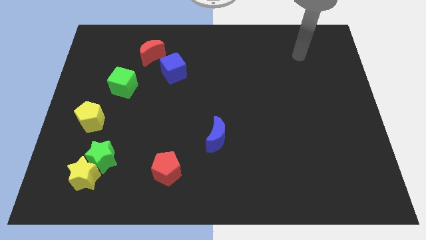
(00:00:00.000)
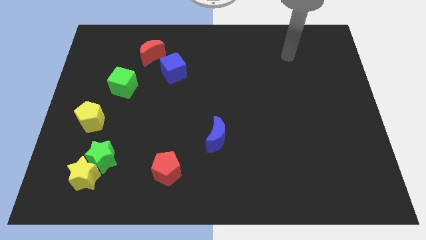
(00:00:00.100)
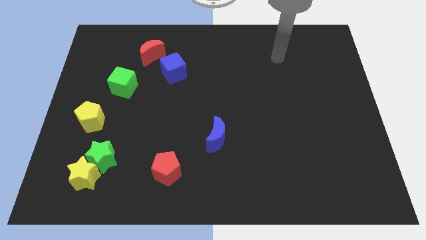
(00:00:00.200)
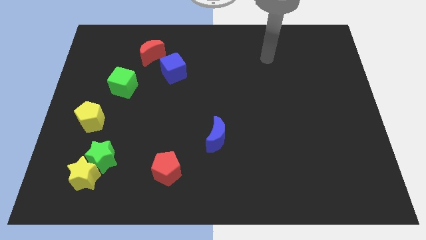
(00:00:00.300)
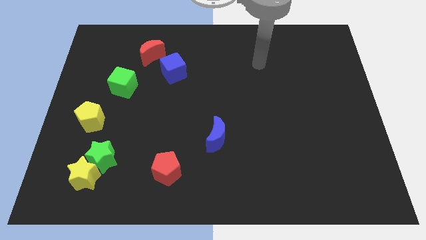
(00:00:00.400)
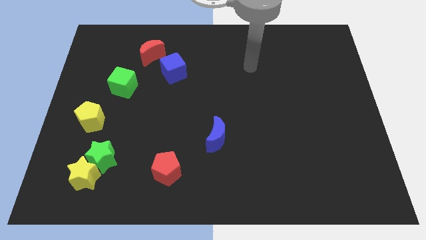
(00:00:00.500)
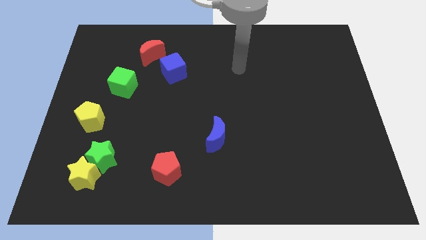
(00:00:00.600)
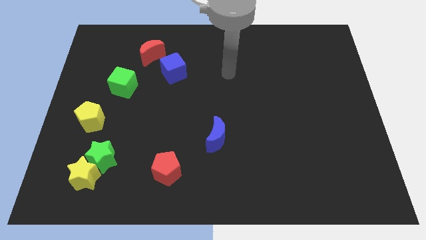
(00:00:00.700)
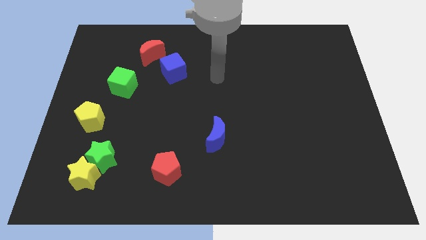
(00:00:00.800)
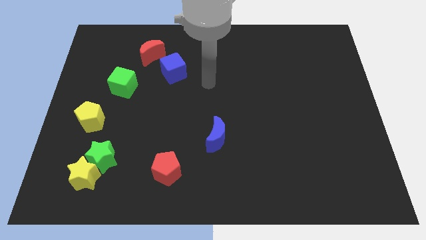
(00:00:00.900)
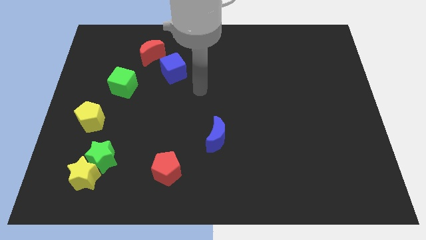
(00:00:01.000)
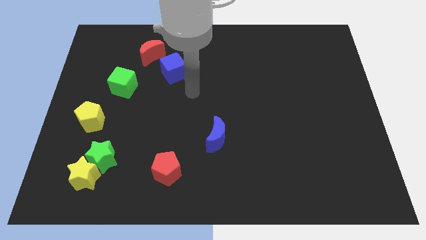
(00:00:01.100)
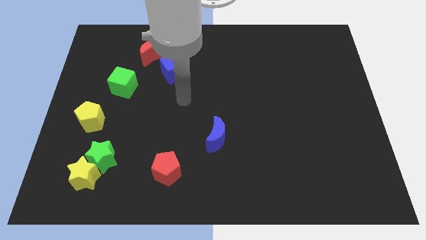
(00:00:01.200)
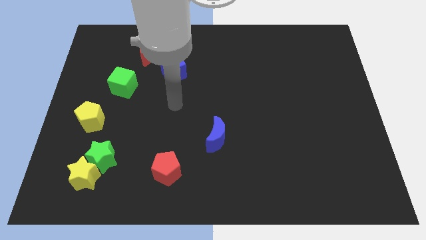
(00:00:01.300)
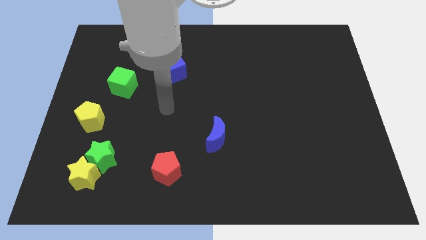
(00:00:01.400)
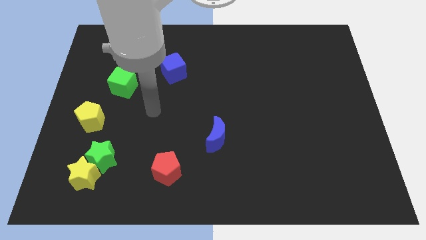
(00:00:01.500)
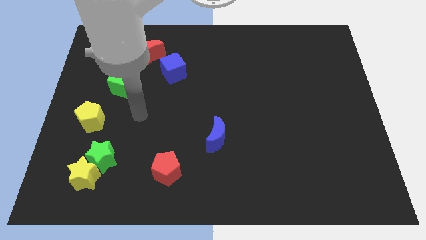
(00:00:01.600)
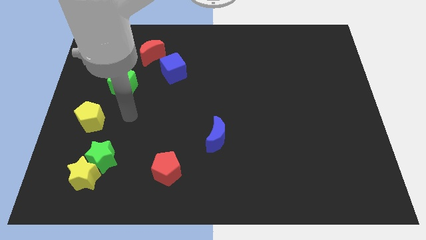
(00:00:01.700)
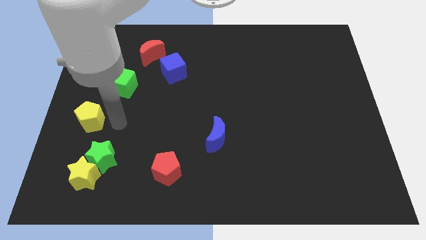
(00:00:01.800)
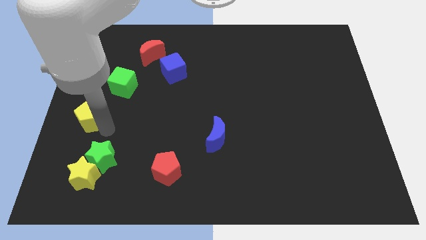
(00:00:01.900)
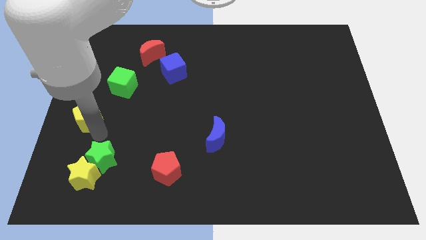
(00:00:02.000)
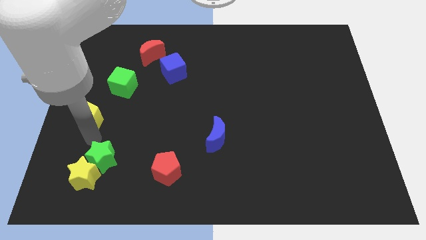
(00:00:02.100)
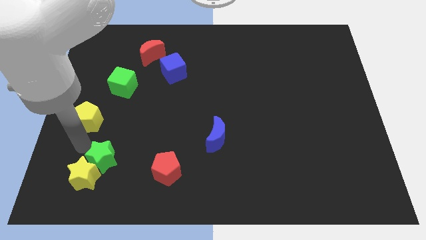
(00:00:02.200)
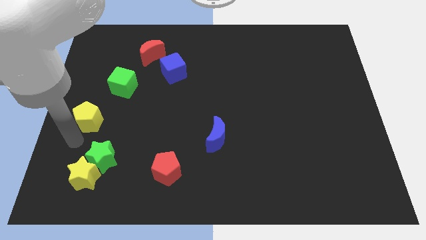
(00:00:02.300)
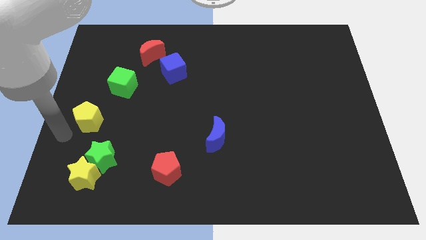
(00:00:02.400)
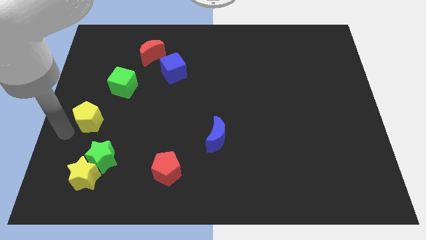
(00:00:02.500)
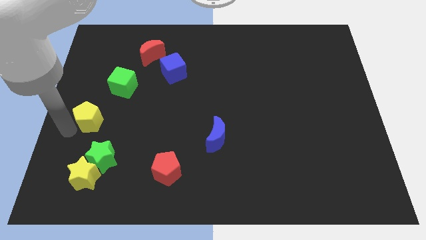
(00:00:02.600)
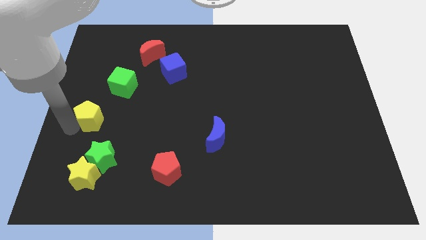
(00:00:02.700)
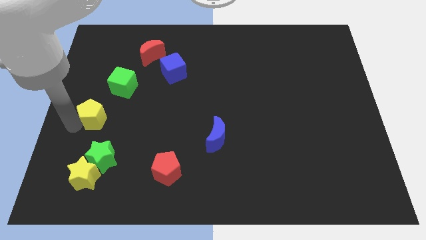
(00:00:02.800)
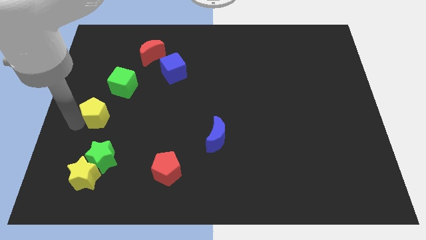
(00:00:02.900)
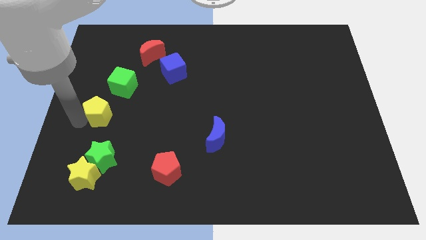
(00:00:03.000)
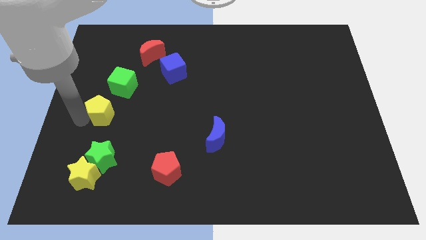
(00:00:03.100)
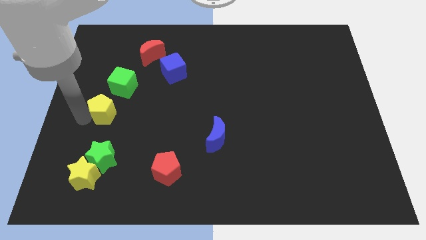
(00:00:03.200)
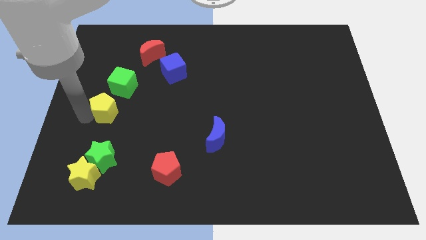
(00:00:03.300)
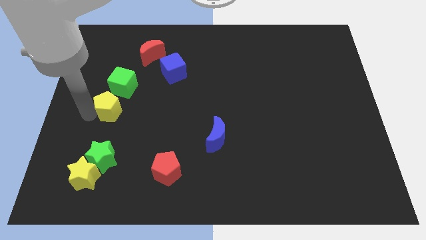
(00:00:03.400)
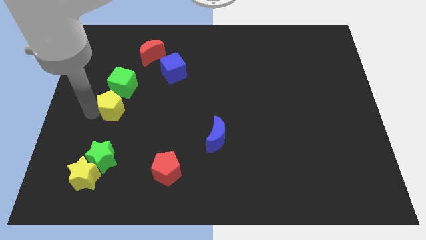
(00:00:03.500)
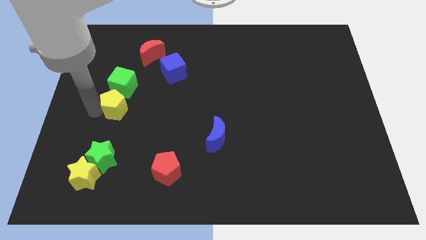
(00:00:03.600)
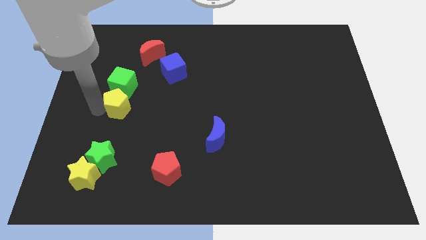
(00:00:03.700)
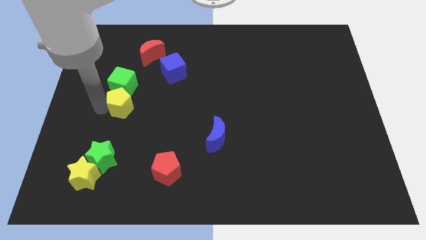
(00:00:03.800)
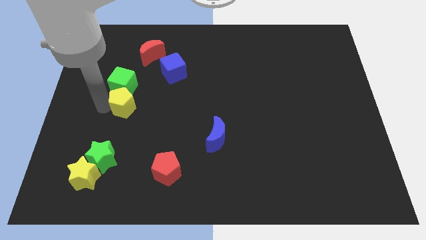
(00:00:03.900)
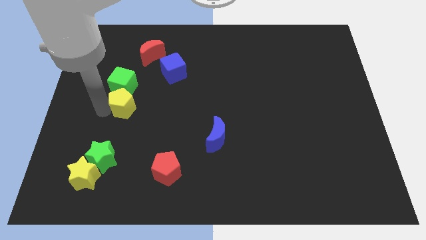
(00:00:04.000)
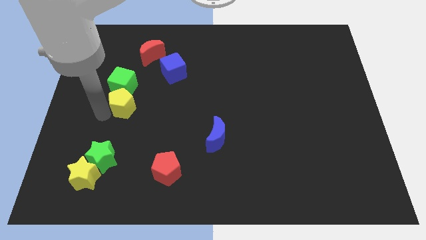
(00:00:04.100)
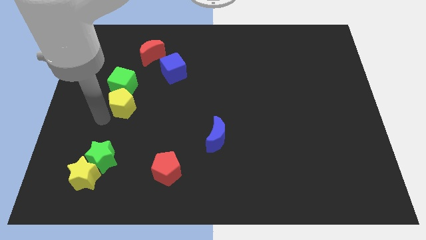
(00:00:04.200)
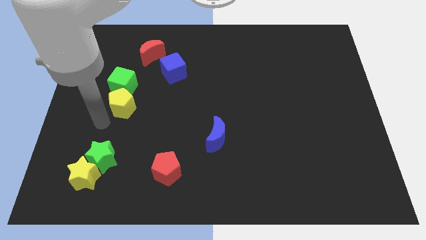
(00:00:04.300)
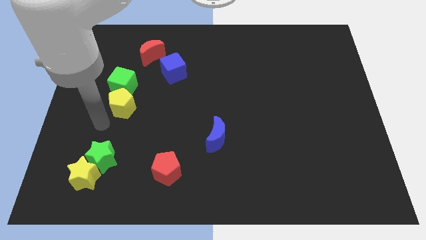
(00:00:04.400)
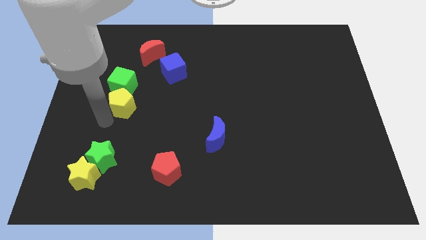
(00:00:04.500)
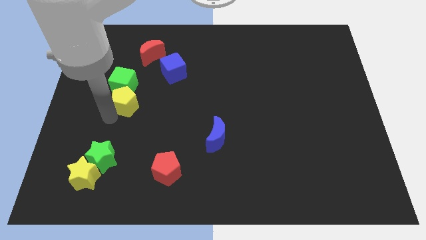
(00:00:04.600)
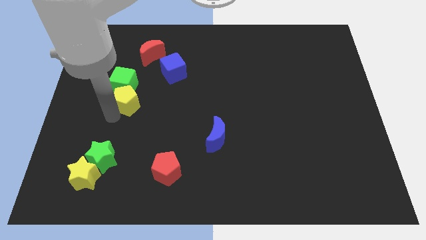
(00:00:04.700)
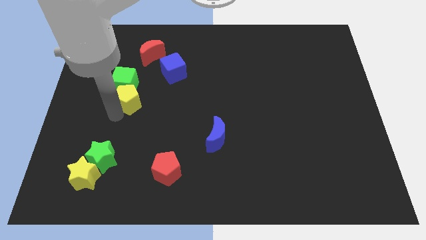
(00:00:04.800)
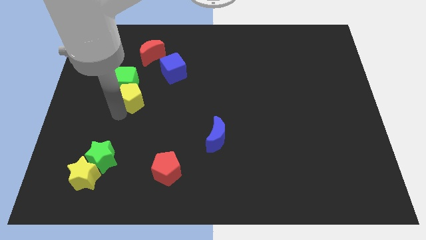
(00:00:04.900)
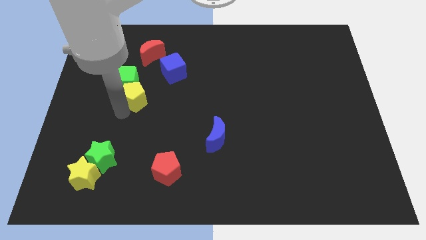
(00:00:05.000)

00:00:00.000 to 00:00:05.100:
push the yellow pentagon to the bottom left of the blue cube

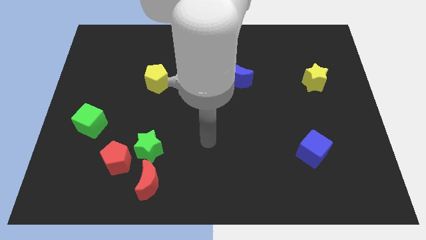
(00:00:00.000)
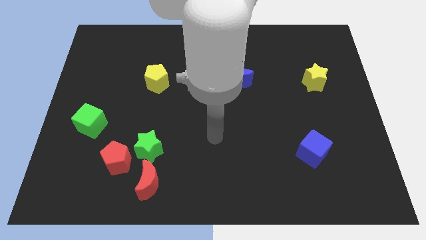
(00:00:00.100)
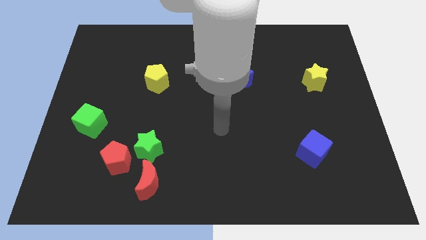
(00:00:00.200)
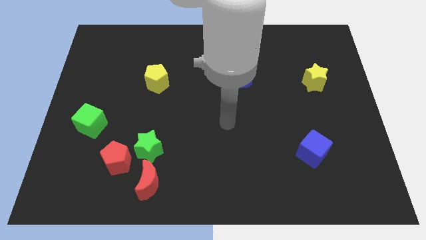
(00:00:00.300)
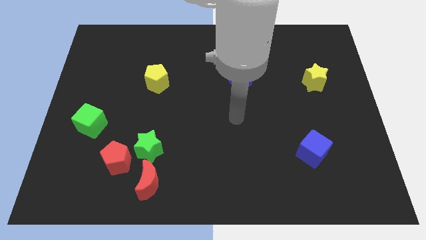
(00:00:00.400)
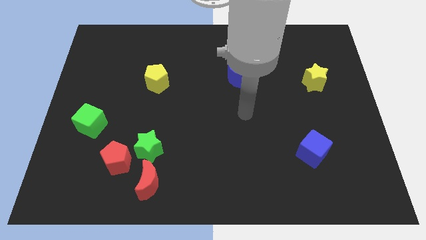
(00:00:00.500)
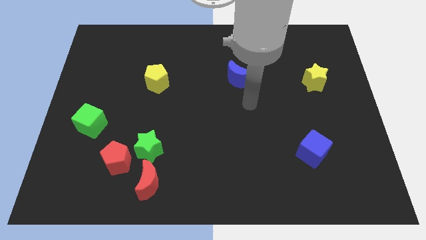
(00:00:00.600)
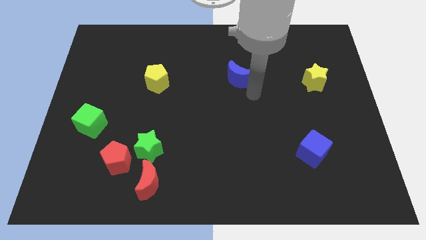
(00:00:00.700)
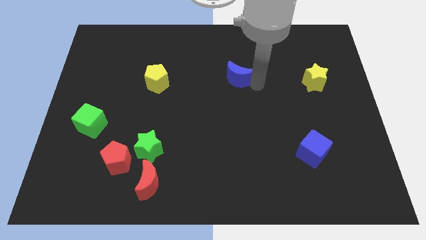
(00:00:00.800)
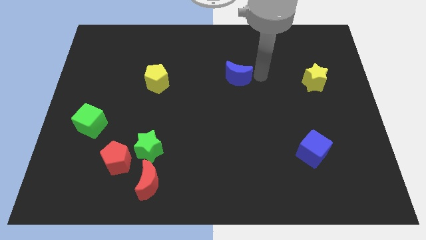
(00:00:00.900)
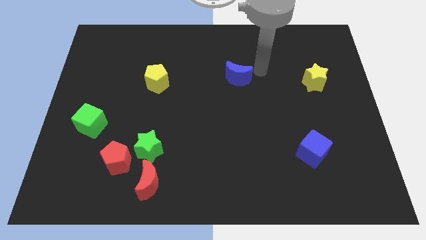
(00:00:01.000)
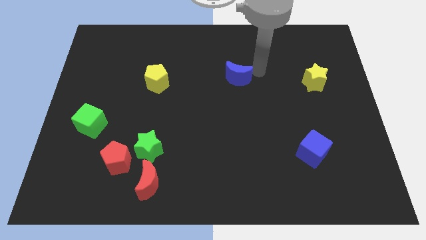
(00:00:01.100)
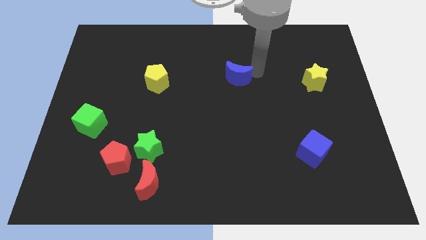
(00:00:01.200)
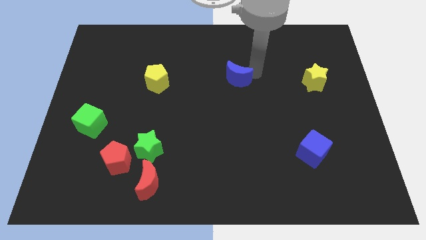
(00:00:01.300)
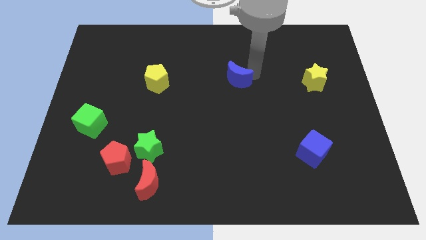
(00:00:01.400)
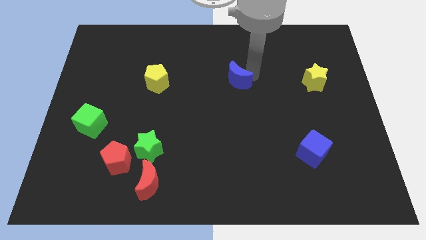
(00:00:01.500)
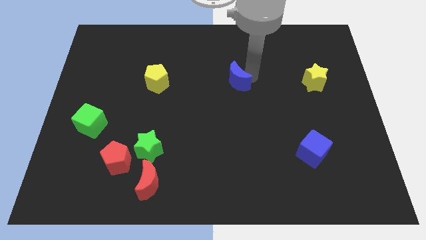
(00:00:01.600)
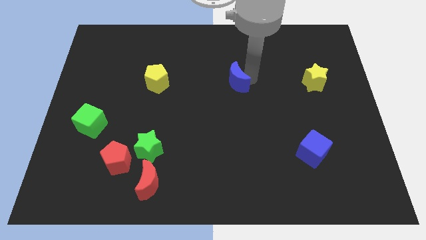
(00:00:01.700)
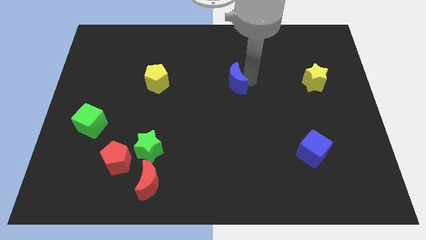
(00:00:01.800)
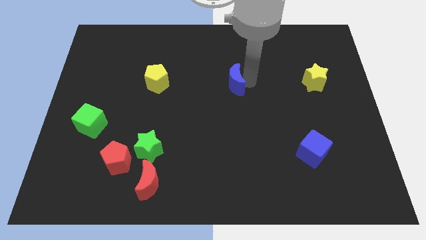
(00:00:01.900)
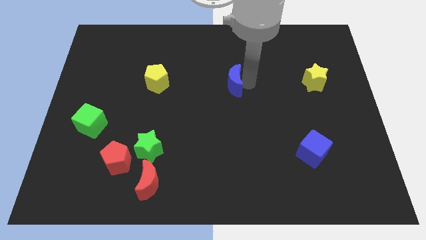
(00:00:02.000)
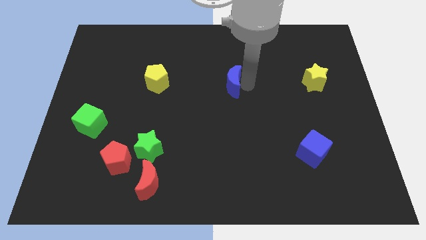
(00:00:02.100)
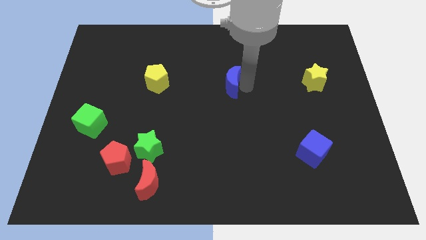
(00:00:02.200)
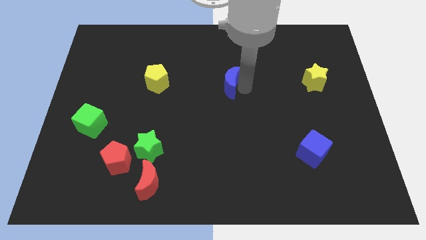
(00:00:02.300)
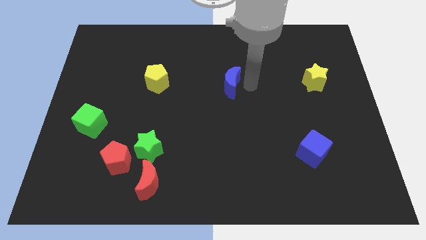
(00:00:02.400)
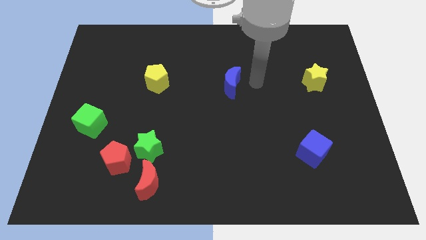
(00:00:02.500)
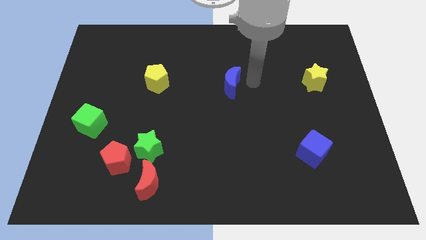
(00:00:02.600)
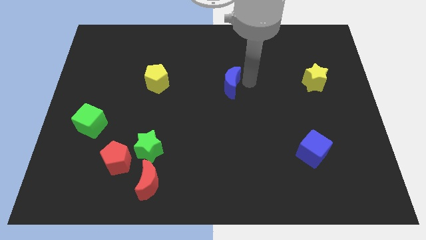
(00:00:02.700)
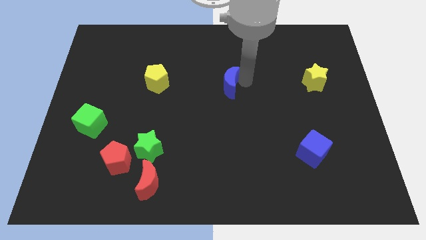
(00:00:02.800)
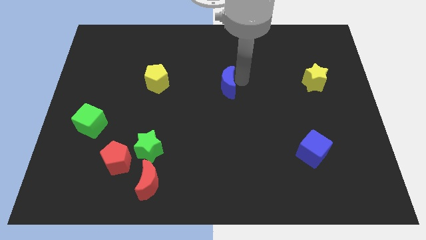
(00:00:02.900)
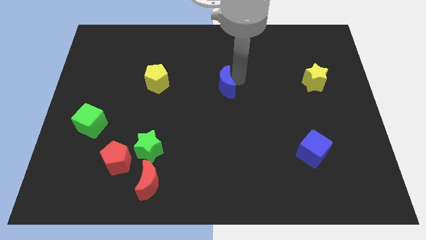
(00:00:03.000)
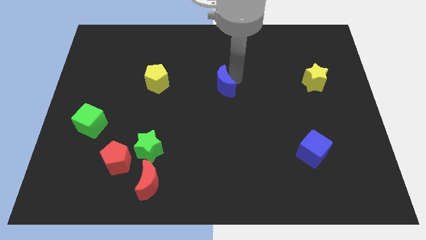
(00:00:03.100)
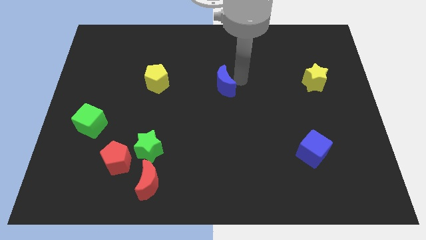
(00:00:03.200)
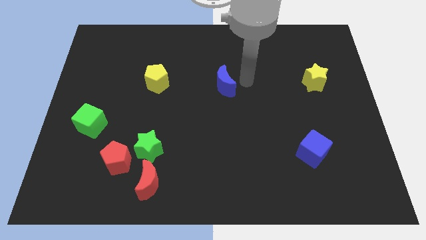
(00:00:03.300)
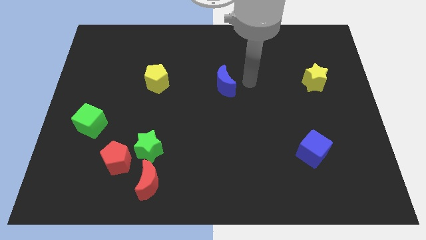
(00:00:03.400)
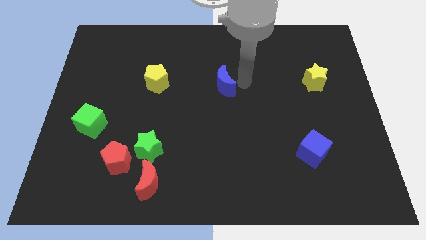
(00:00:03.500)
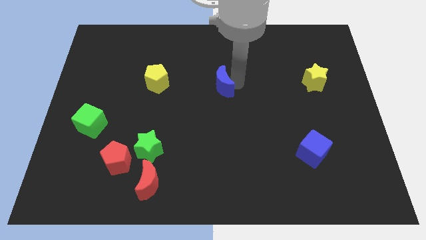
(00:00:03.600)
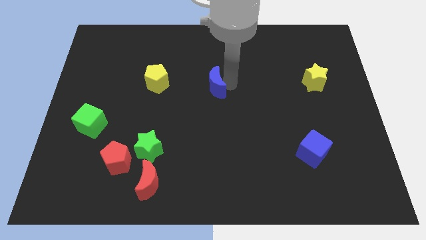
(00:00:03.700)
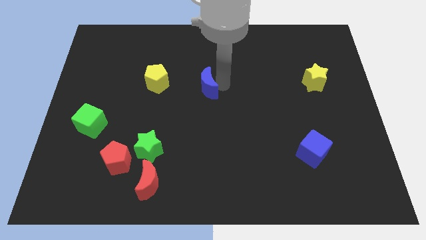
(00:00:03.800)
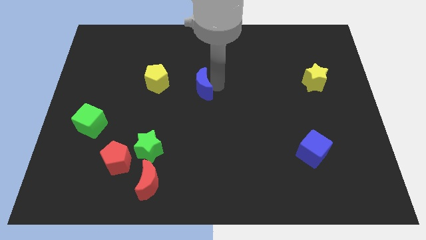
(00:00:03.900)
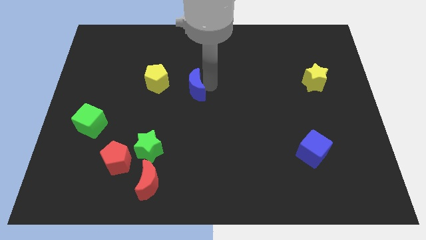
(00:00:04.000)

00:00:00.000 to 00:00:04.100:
move the blue moon to the bottom right of the yellow pentagon
